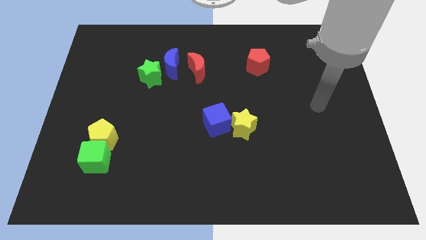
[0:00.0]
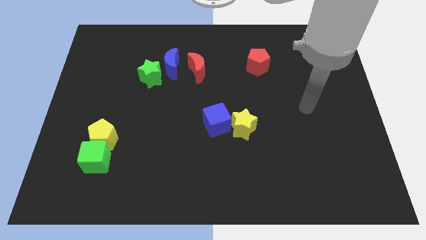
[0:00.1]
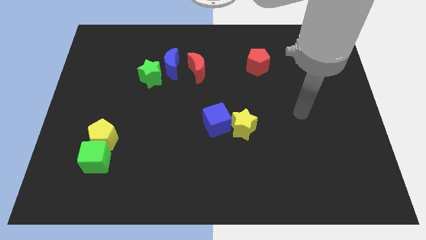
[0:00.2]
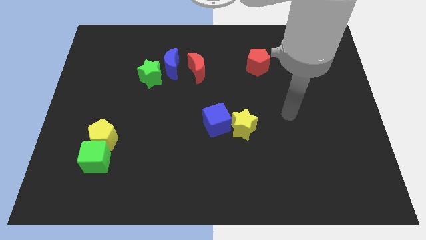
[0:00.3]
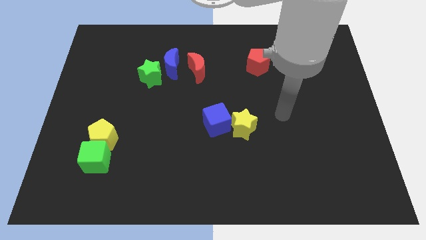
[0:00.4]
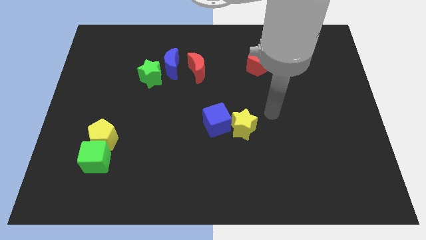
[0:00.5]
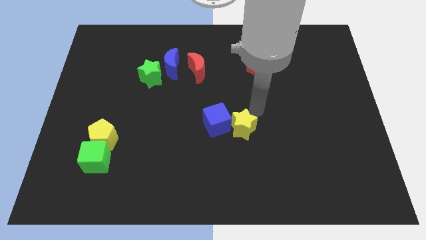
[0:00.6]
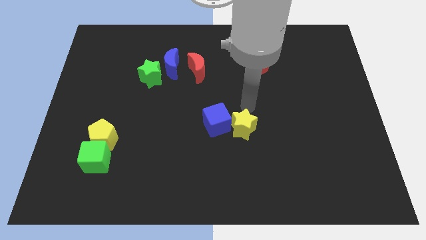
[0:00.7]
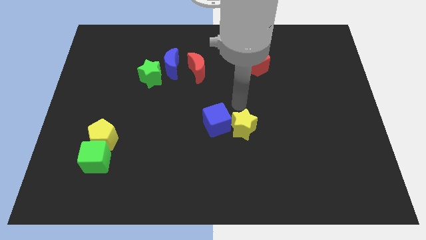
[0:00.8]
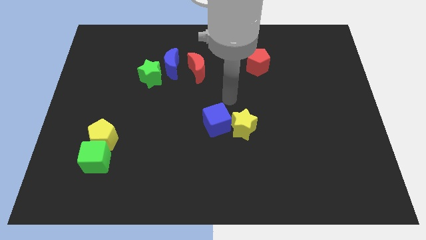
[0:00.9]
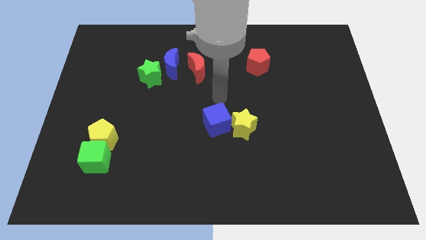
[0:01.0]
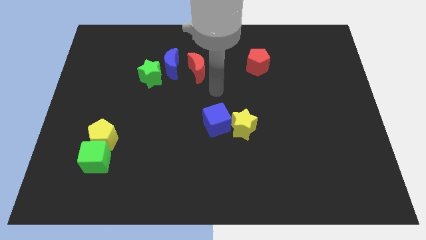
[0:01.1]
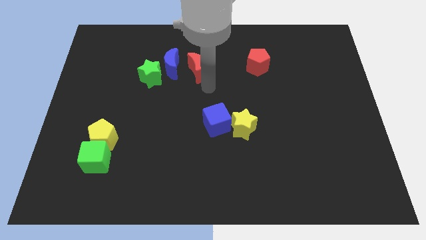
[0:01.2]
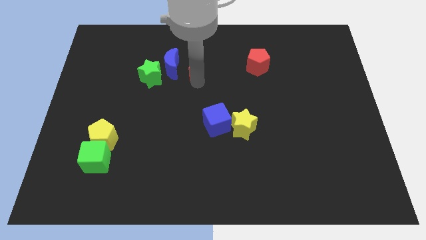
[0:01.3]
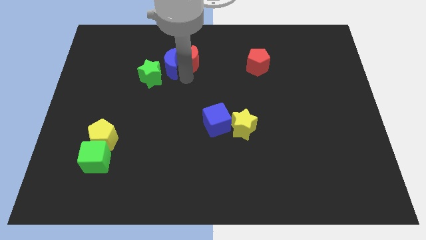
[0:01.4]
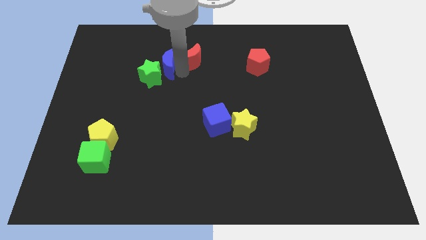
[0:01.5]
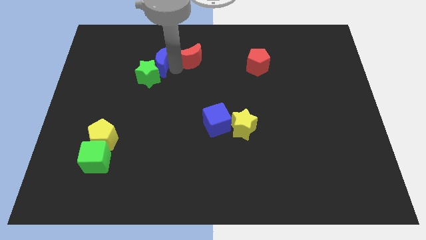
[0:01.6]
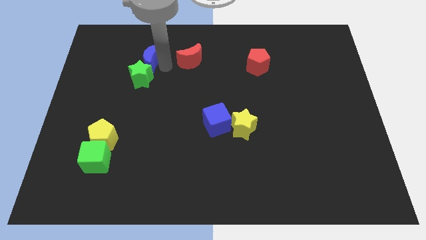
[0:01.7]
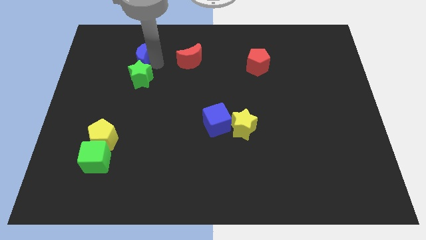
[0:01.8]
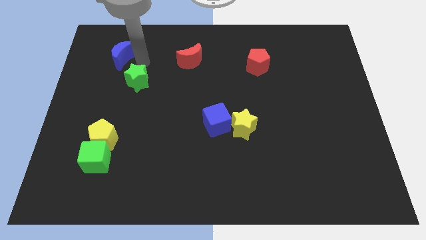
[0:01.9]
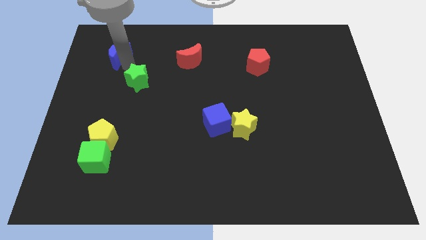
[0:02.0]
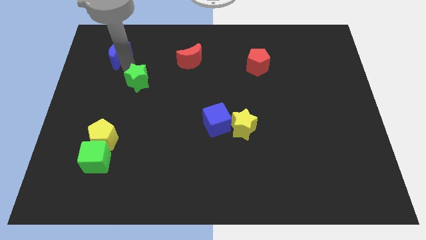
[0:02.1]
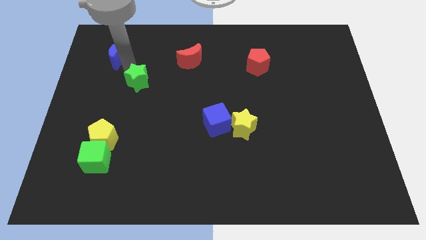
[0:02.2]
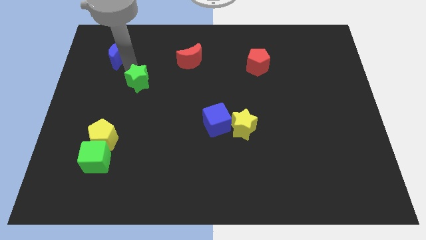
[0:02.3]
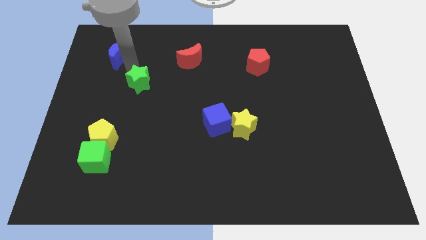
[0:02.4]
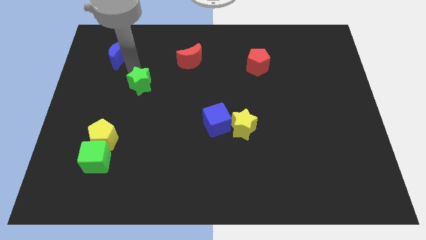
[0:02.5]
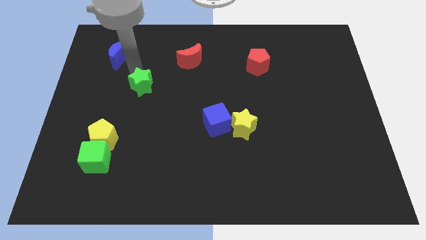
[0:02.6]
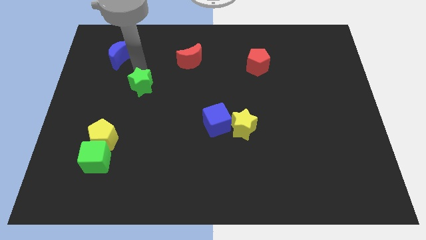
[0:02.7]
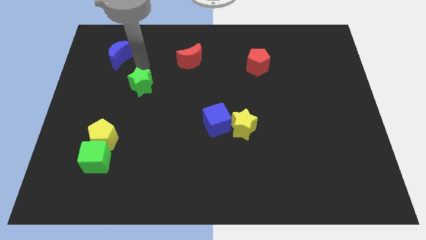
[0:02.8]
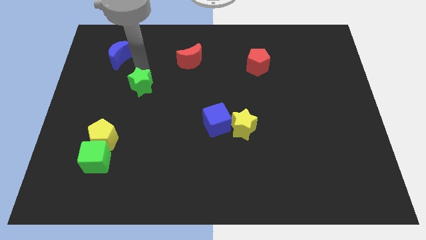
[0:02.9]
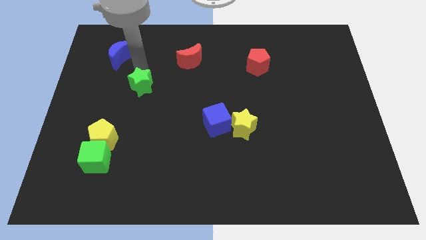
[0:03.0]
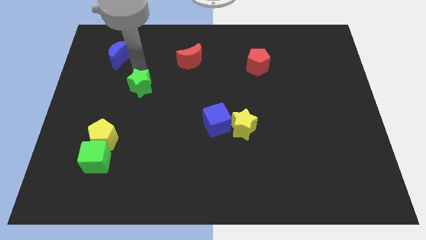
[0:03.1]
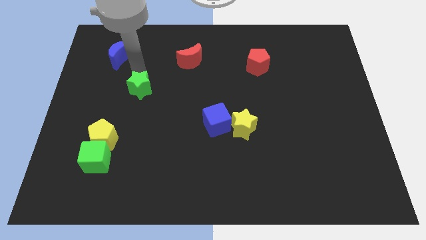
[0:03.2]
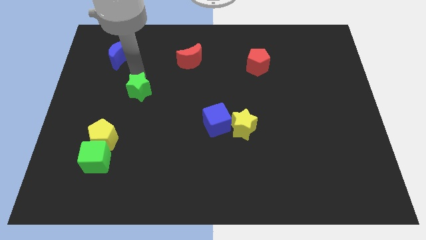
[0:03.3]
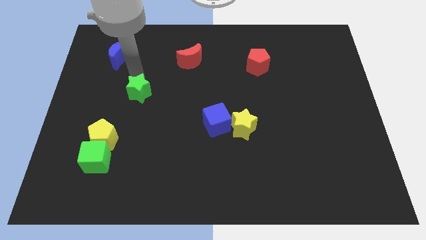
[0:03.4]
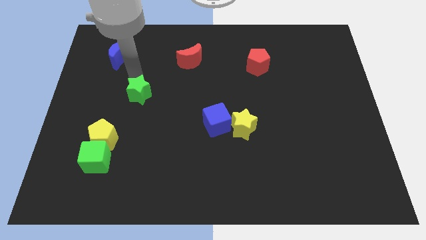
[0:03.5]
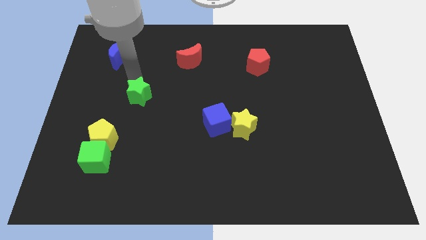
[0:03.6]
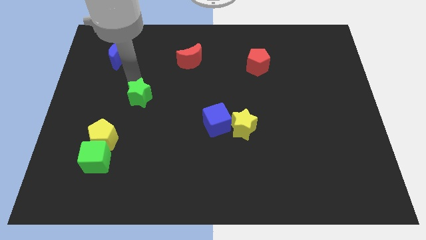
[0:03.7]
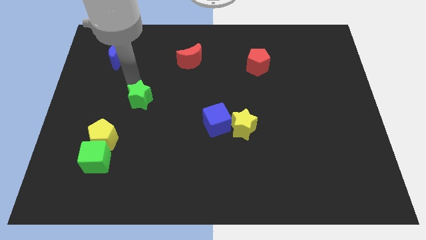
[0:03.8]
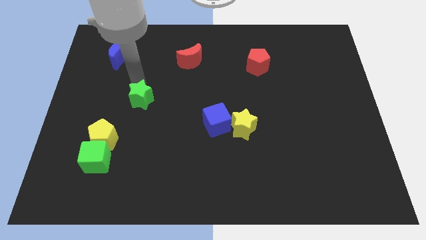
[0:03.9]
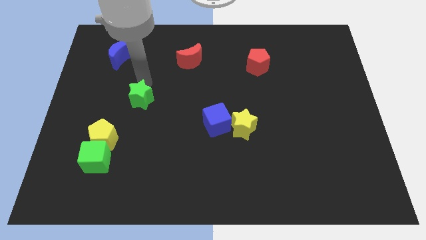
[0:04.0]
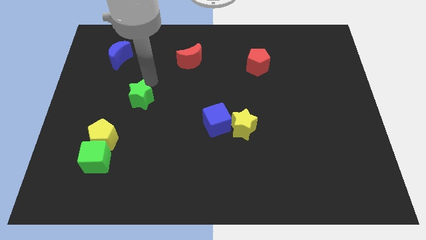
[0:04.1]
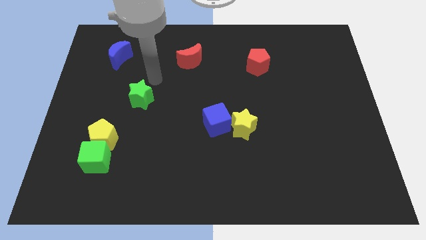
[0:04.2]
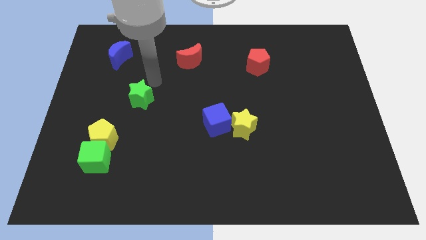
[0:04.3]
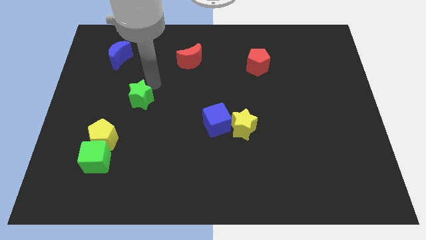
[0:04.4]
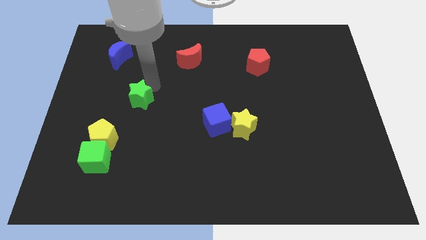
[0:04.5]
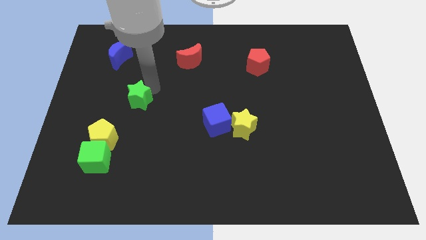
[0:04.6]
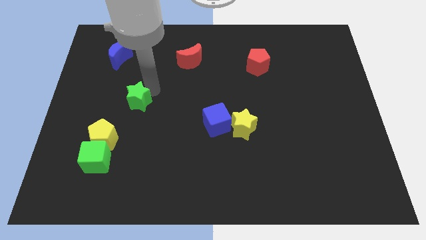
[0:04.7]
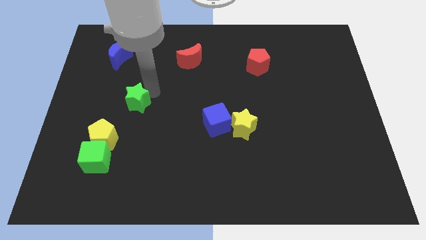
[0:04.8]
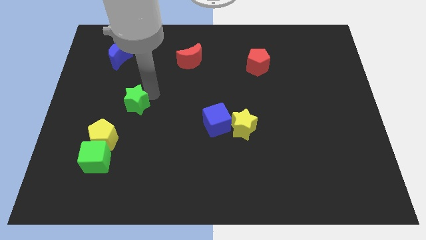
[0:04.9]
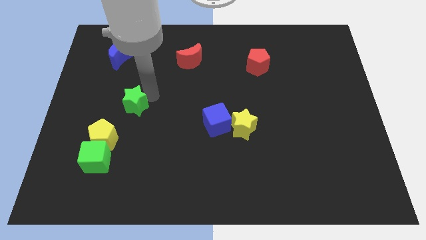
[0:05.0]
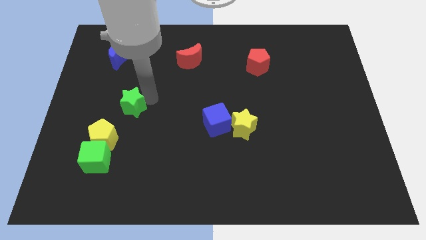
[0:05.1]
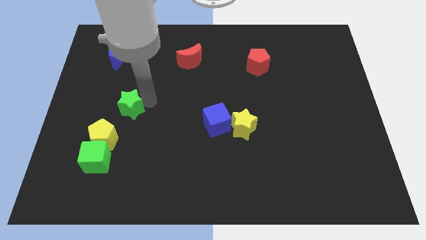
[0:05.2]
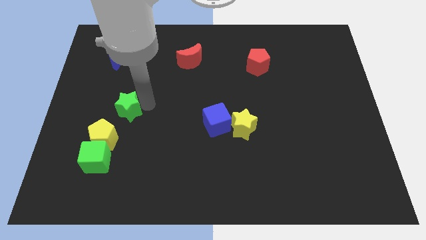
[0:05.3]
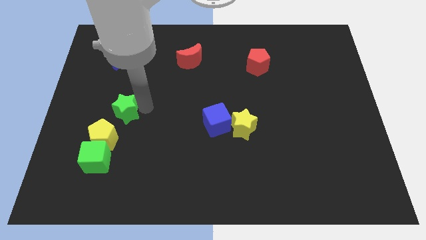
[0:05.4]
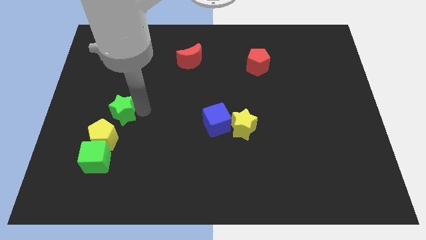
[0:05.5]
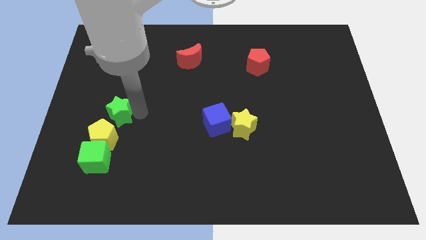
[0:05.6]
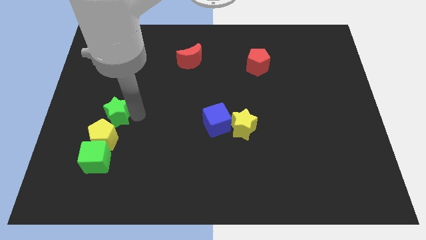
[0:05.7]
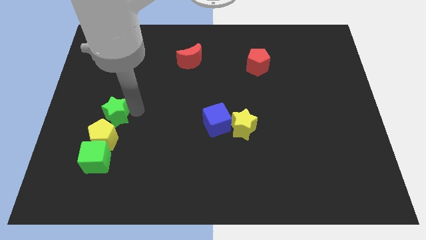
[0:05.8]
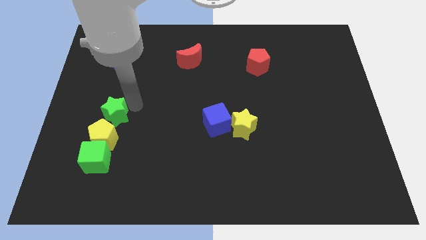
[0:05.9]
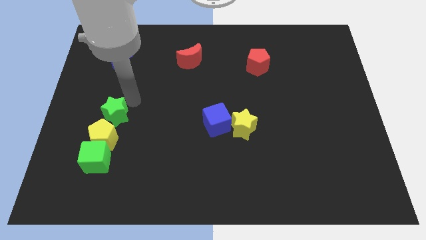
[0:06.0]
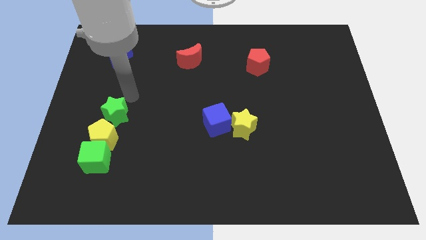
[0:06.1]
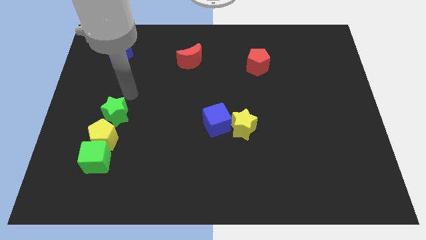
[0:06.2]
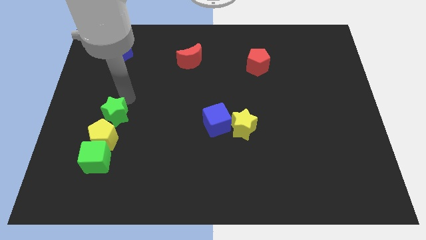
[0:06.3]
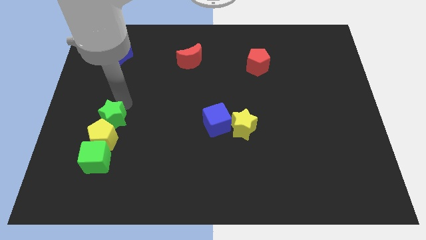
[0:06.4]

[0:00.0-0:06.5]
move the green star to the yellow pentagon

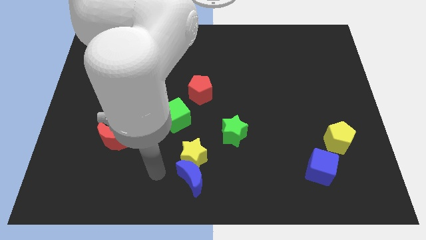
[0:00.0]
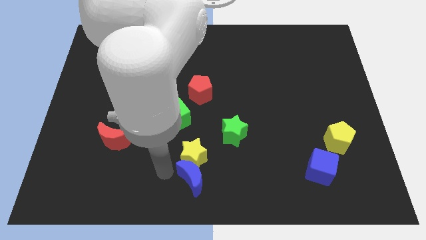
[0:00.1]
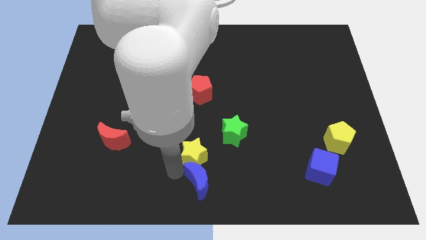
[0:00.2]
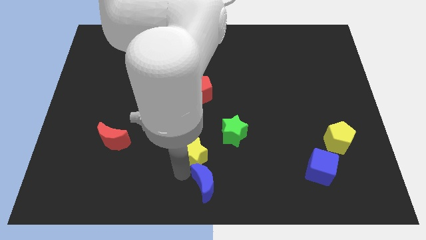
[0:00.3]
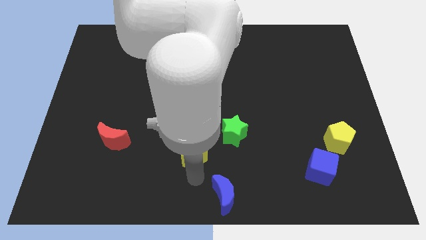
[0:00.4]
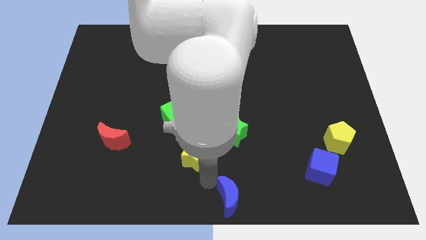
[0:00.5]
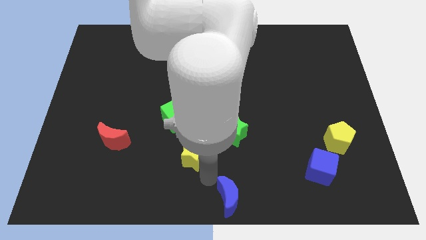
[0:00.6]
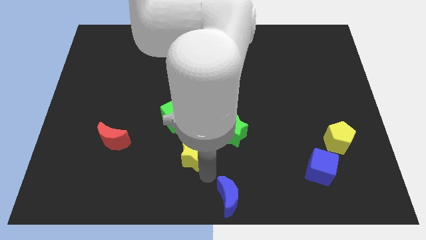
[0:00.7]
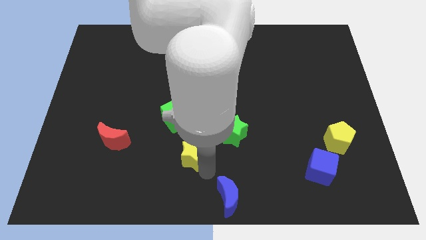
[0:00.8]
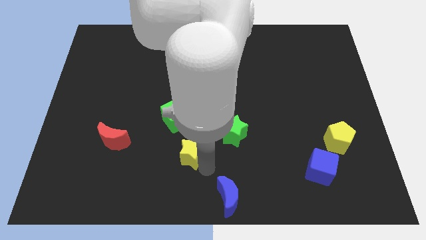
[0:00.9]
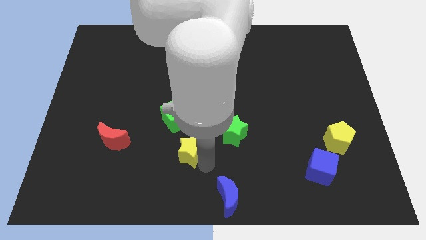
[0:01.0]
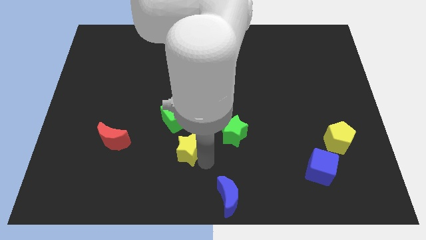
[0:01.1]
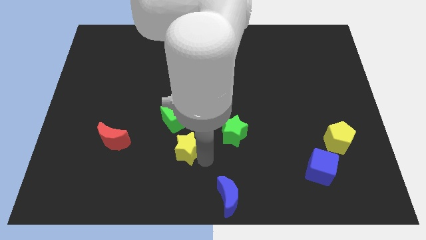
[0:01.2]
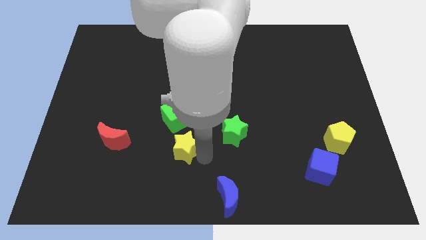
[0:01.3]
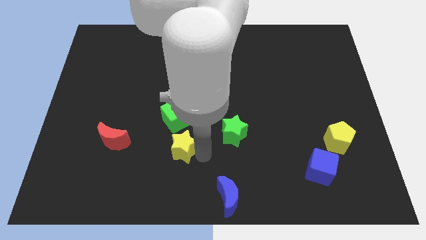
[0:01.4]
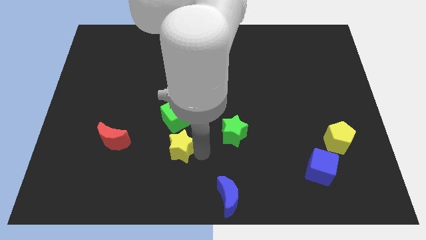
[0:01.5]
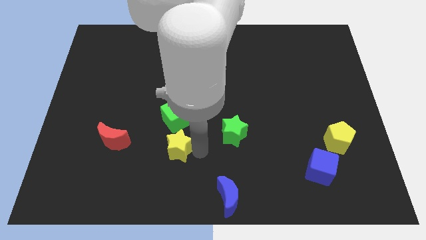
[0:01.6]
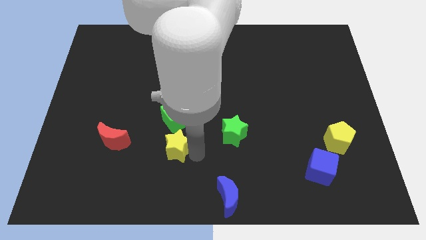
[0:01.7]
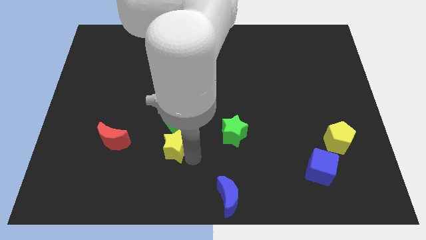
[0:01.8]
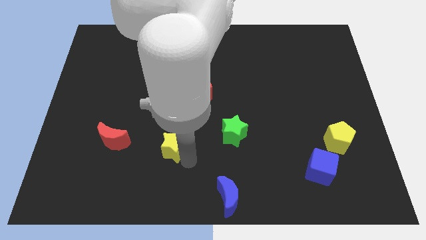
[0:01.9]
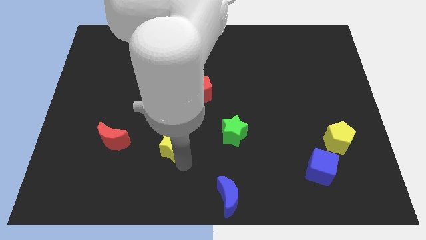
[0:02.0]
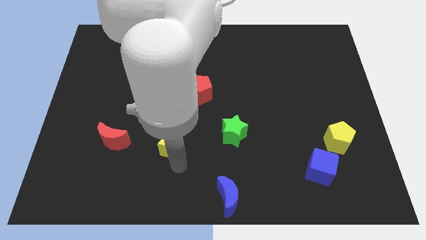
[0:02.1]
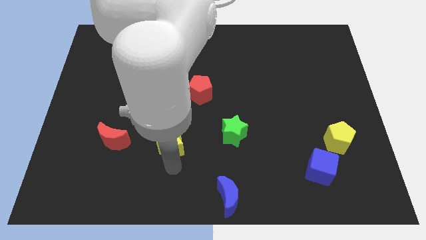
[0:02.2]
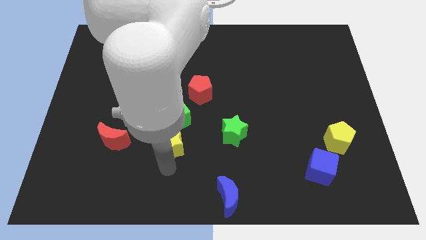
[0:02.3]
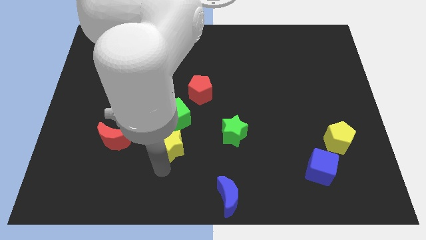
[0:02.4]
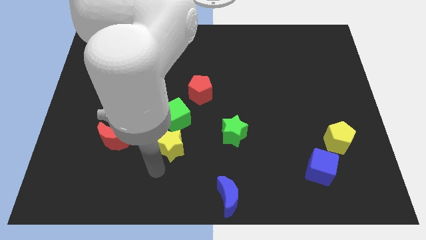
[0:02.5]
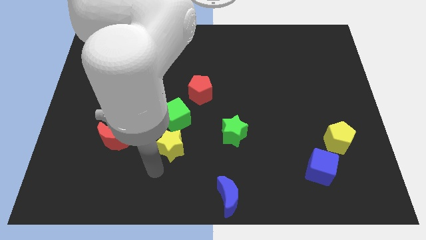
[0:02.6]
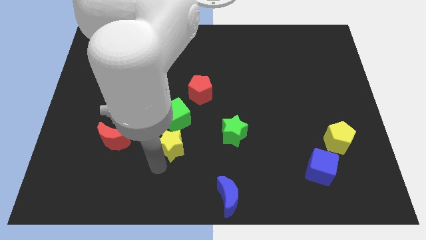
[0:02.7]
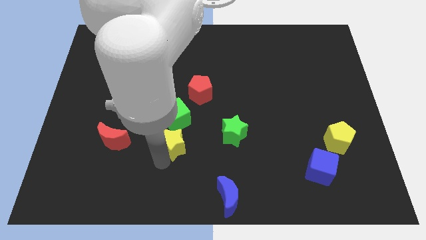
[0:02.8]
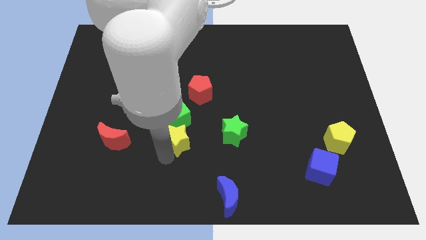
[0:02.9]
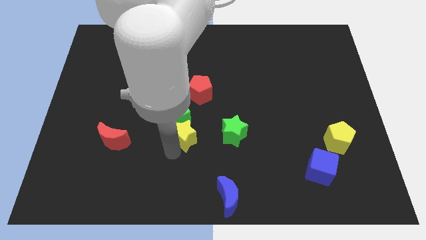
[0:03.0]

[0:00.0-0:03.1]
push the yellow star to the green cube
